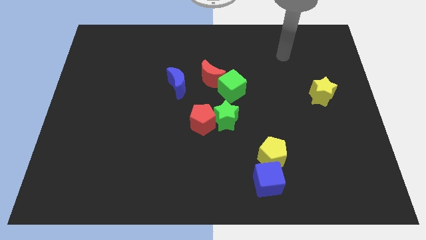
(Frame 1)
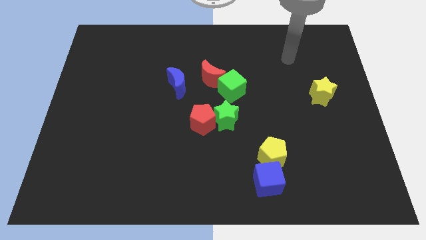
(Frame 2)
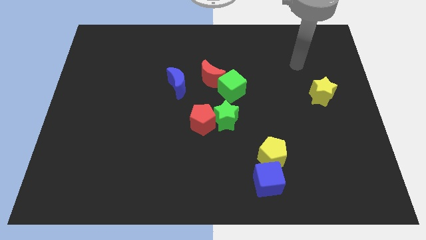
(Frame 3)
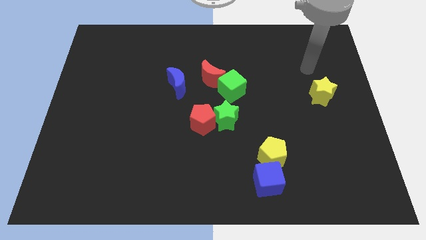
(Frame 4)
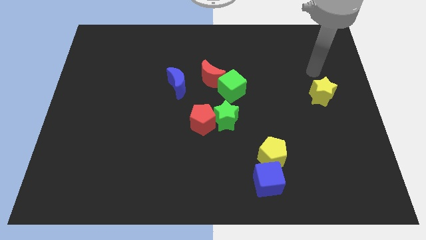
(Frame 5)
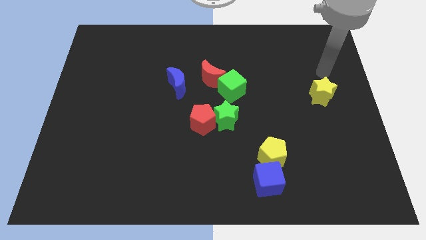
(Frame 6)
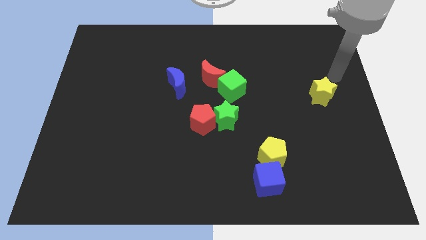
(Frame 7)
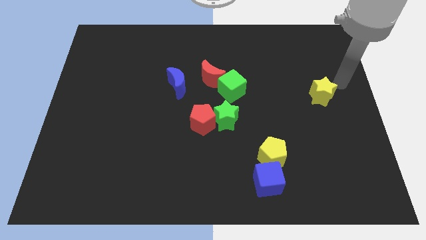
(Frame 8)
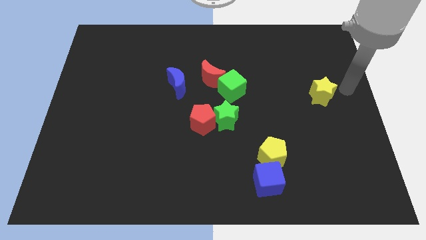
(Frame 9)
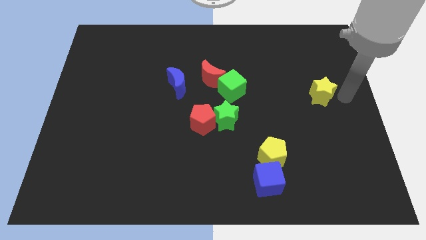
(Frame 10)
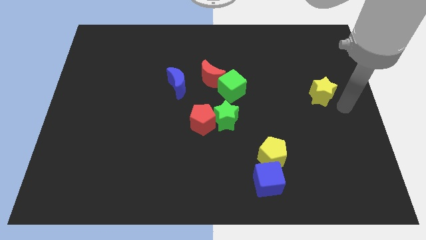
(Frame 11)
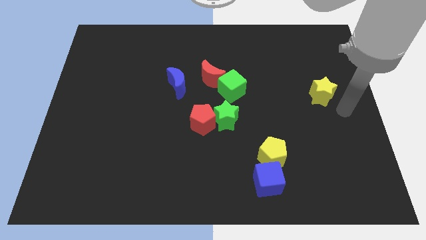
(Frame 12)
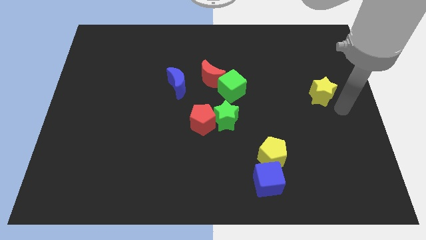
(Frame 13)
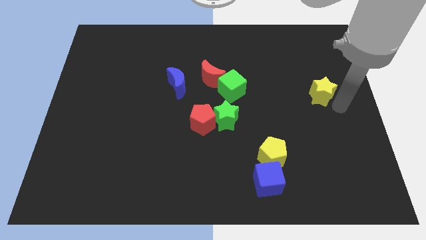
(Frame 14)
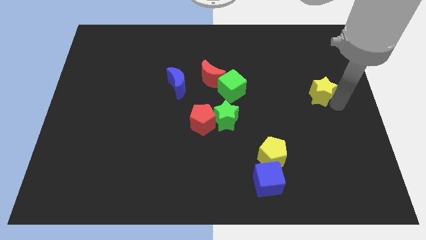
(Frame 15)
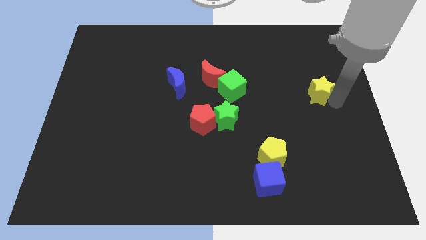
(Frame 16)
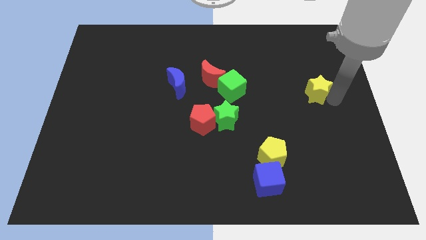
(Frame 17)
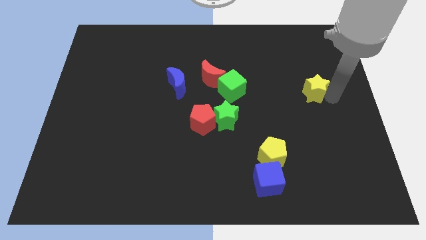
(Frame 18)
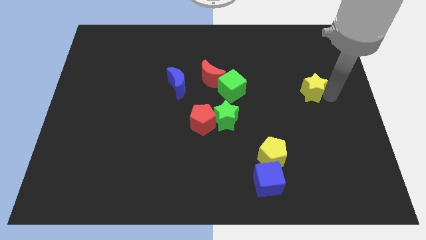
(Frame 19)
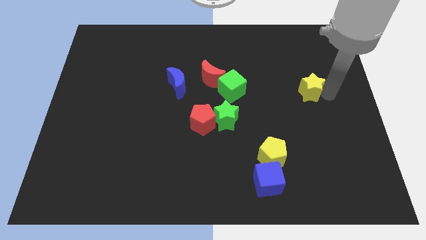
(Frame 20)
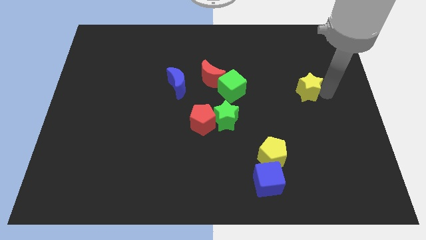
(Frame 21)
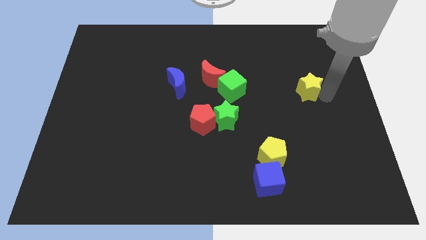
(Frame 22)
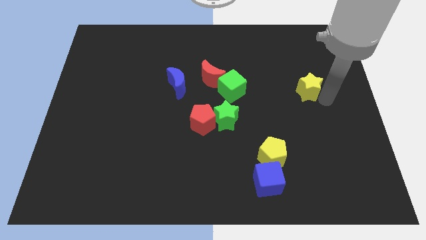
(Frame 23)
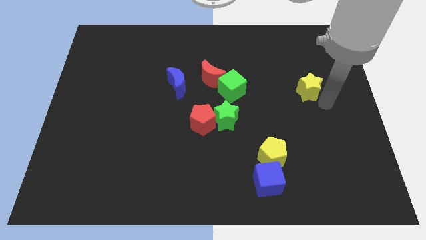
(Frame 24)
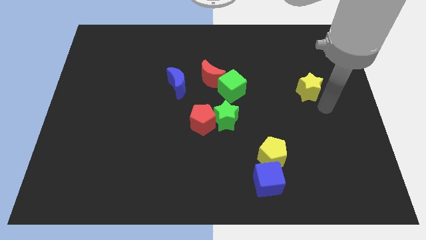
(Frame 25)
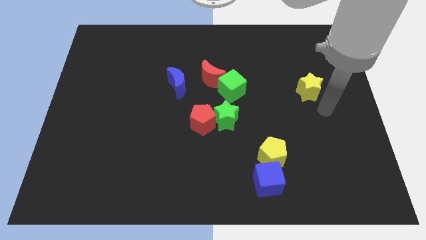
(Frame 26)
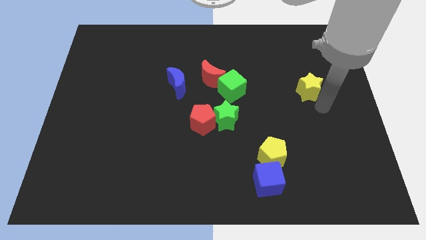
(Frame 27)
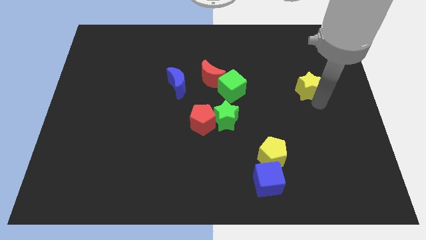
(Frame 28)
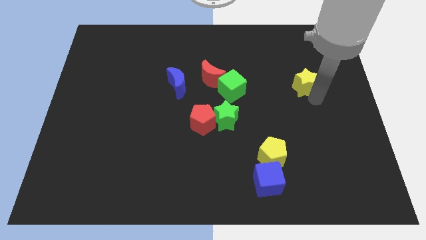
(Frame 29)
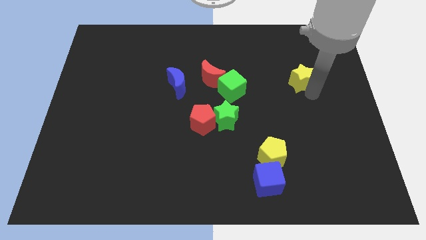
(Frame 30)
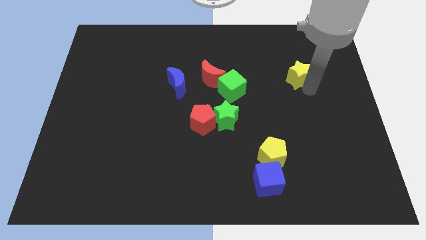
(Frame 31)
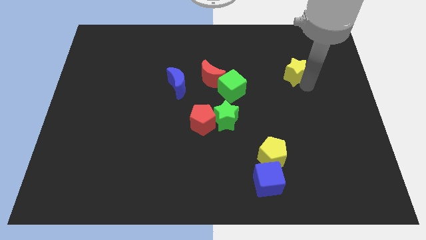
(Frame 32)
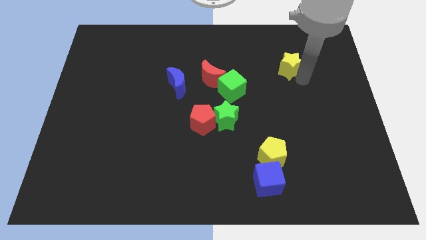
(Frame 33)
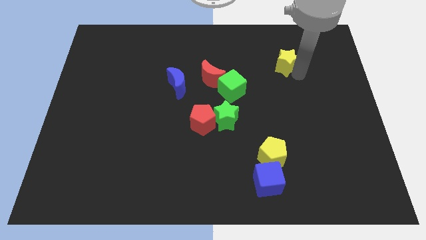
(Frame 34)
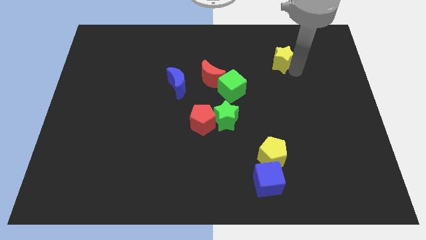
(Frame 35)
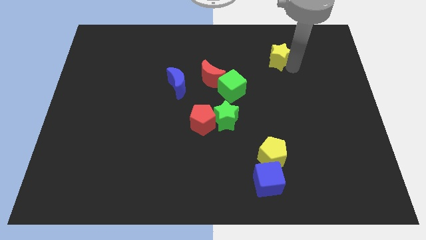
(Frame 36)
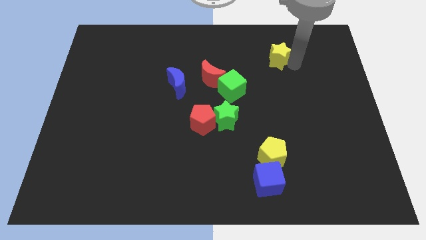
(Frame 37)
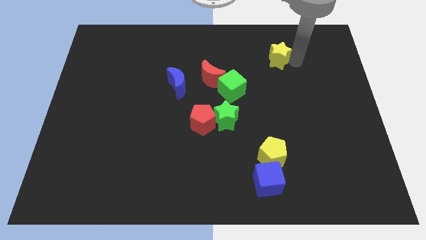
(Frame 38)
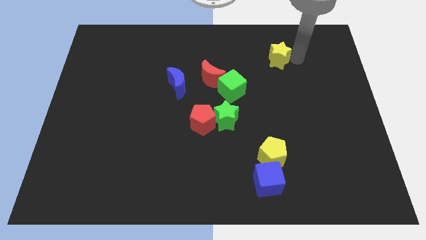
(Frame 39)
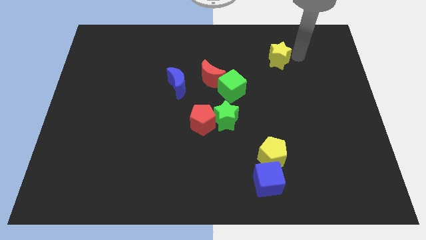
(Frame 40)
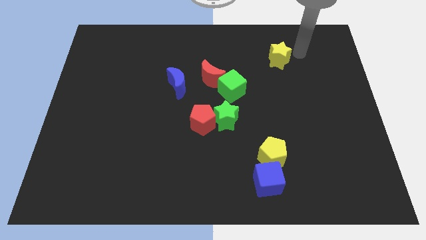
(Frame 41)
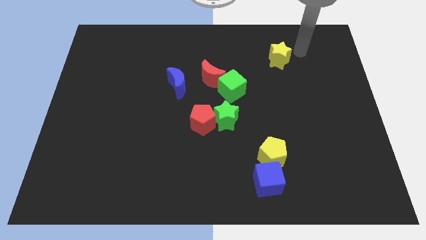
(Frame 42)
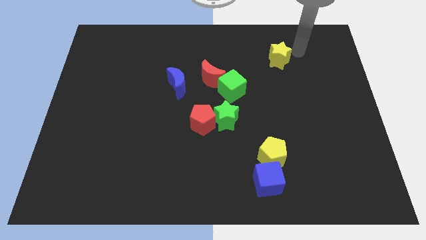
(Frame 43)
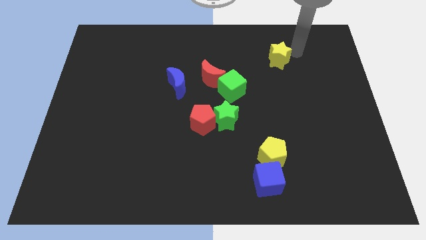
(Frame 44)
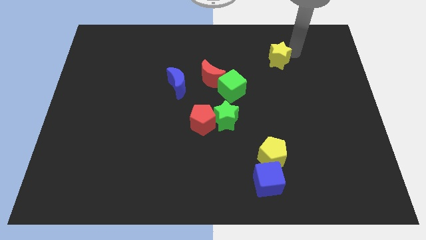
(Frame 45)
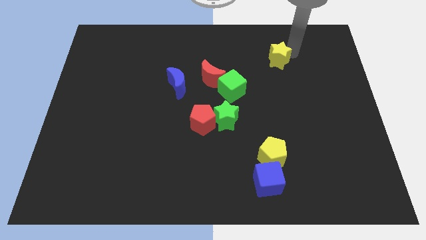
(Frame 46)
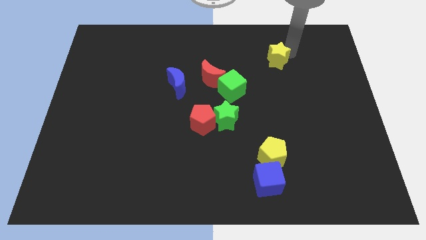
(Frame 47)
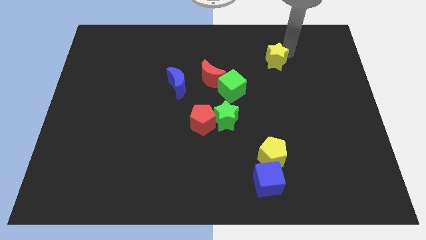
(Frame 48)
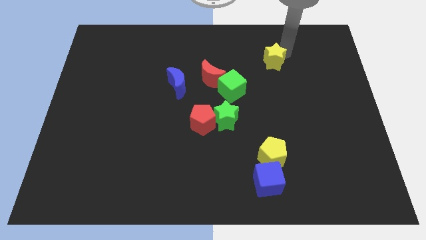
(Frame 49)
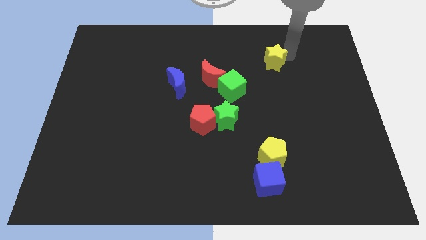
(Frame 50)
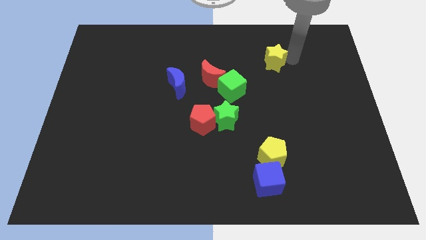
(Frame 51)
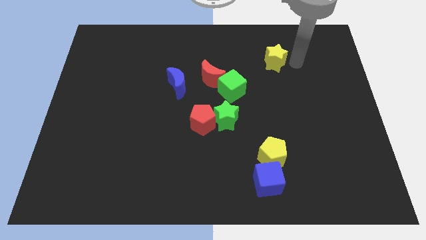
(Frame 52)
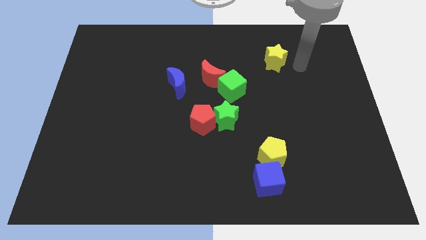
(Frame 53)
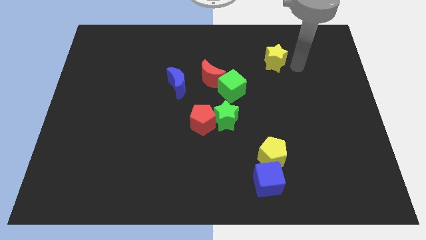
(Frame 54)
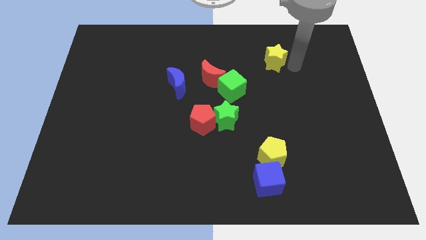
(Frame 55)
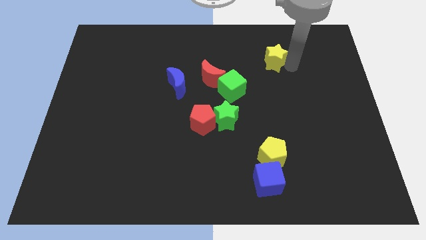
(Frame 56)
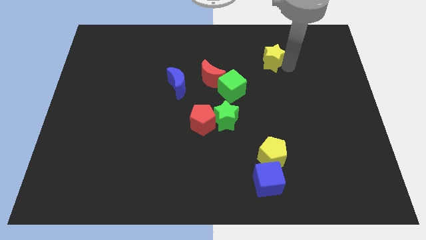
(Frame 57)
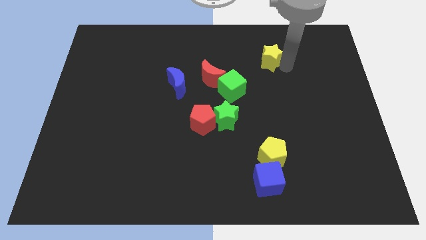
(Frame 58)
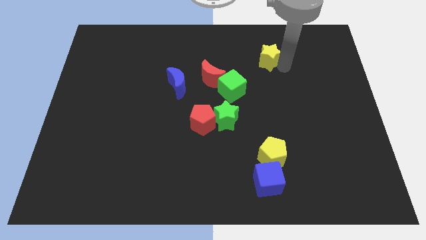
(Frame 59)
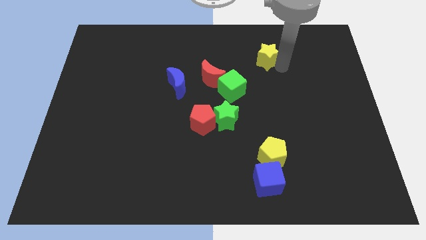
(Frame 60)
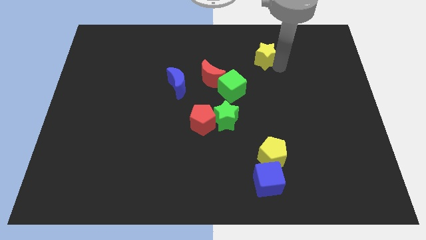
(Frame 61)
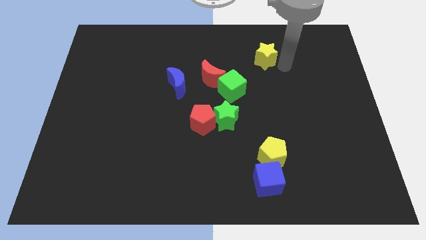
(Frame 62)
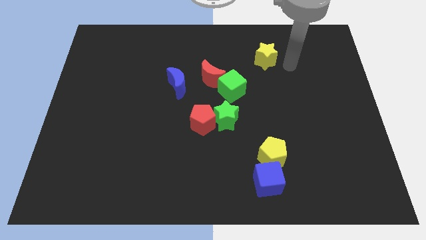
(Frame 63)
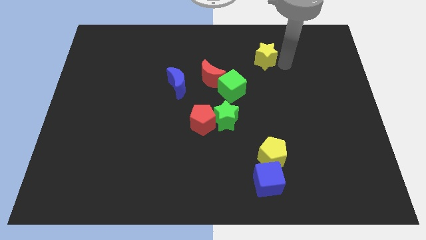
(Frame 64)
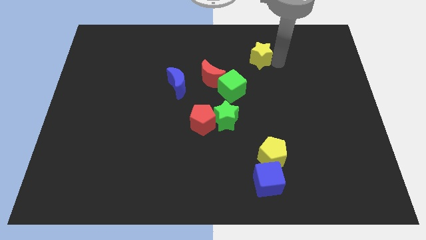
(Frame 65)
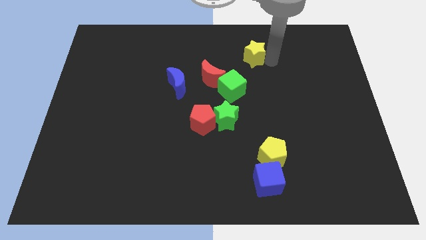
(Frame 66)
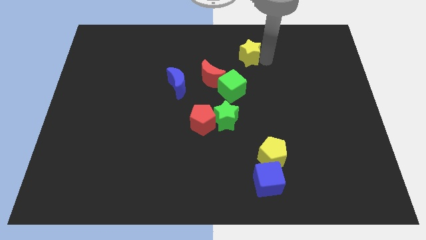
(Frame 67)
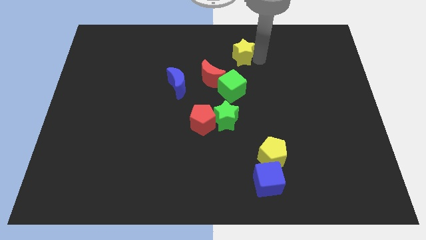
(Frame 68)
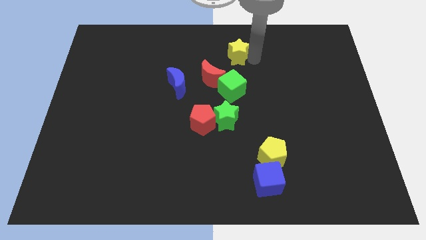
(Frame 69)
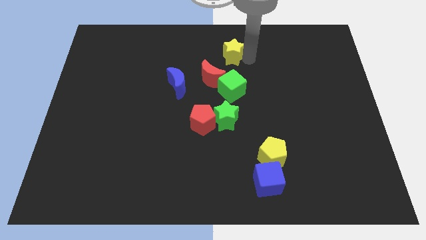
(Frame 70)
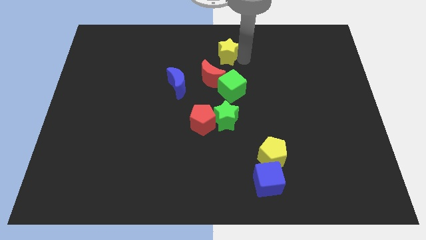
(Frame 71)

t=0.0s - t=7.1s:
push the yellow star to the top
